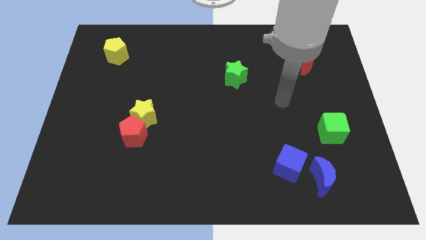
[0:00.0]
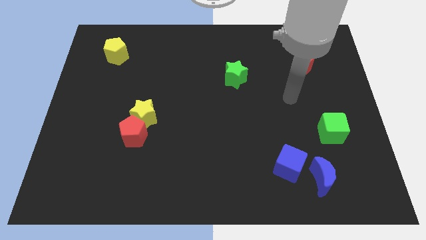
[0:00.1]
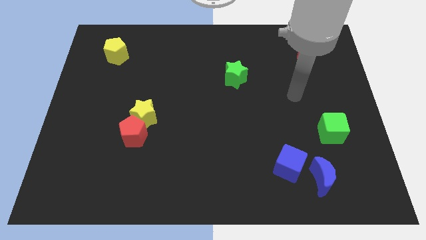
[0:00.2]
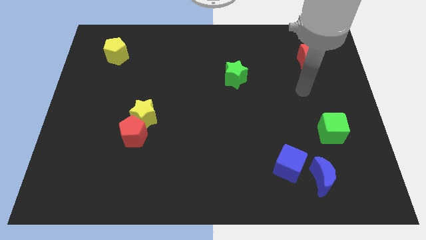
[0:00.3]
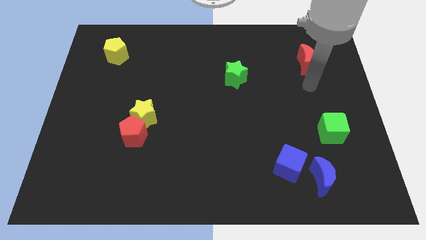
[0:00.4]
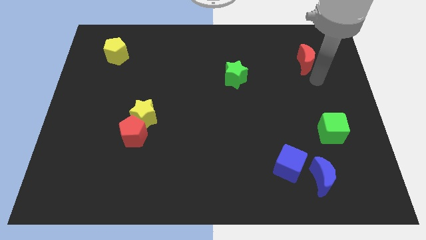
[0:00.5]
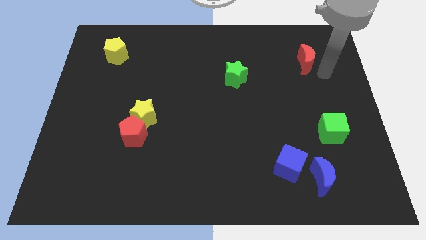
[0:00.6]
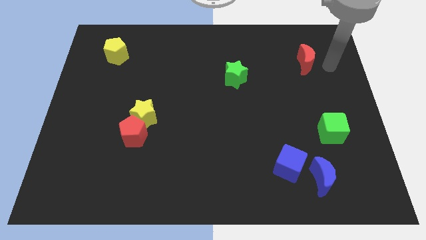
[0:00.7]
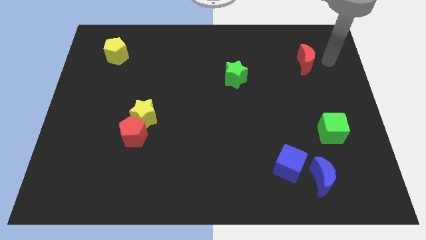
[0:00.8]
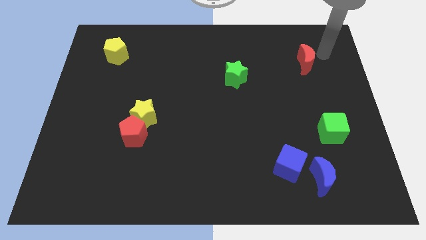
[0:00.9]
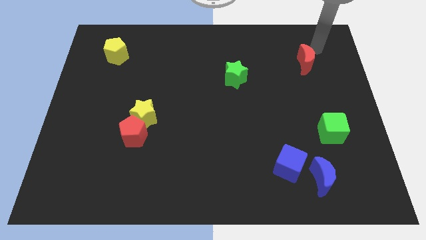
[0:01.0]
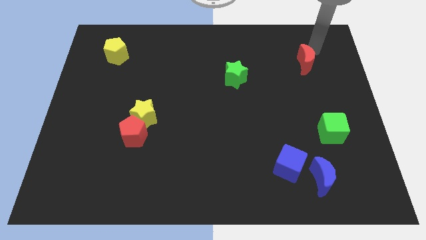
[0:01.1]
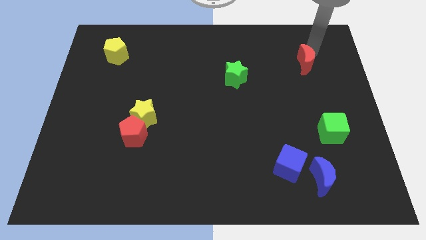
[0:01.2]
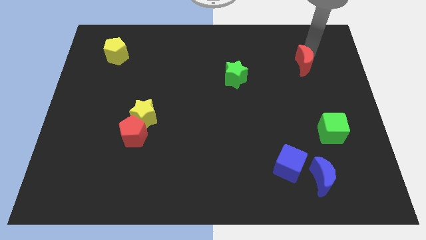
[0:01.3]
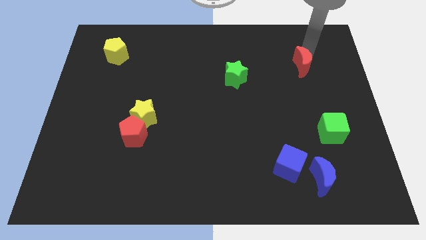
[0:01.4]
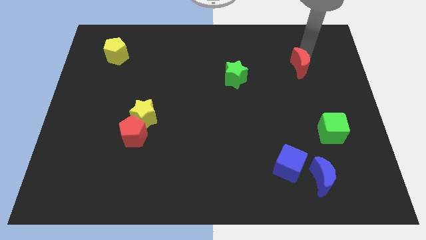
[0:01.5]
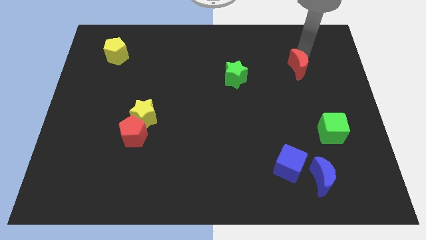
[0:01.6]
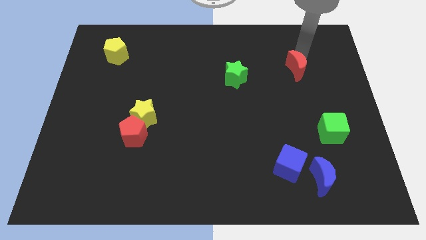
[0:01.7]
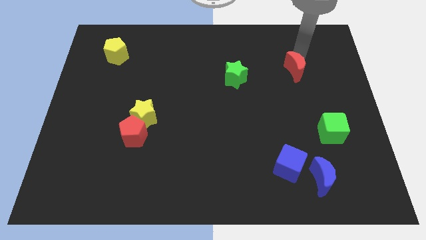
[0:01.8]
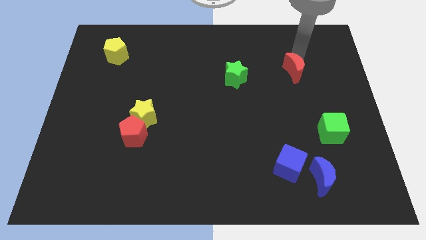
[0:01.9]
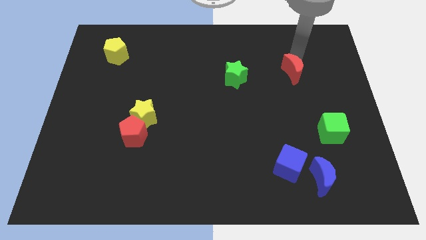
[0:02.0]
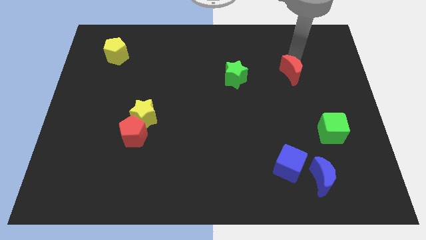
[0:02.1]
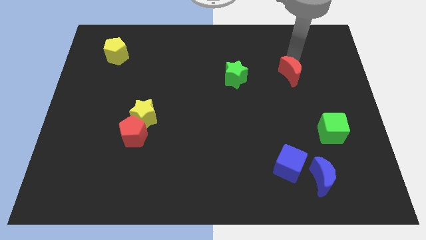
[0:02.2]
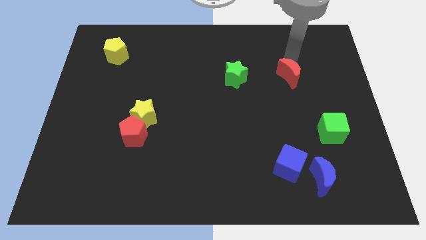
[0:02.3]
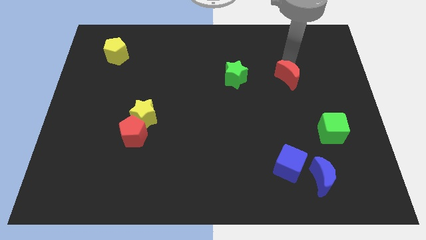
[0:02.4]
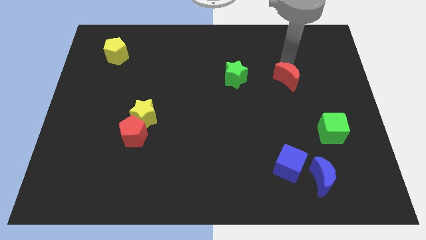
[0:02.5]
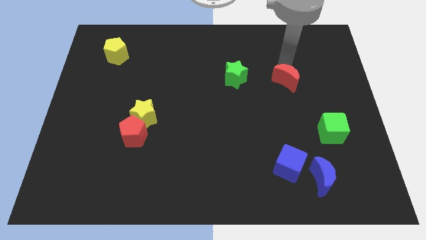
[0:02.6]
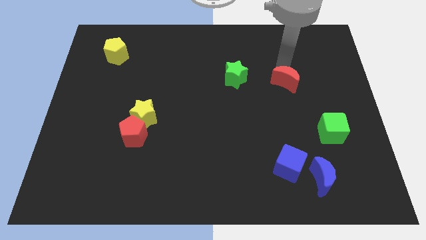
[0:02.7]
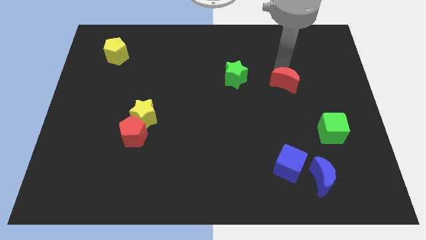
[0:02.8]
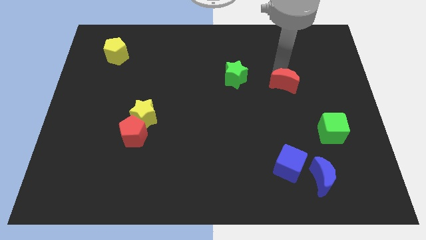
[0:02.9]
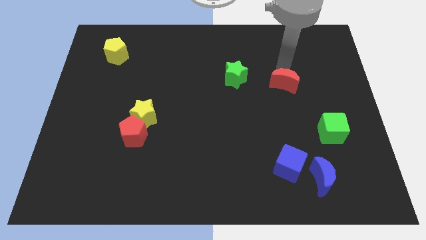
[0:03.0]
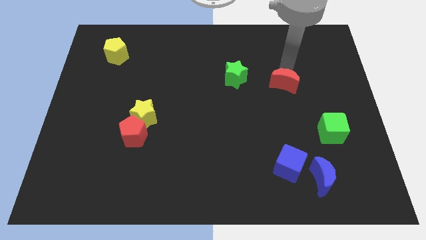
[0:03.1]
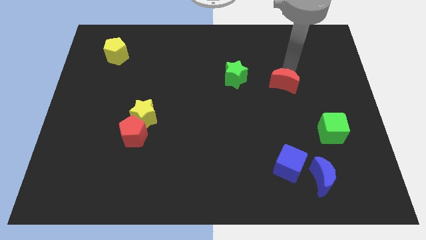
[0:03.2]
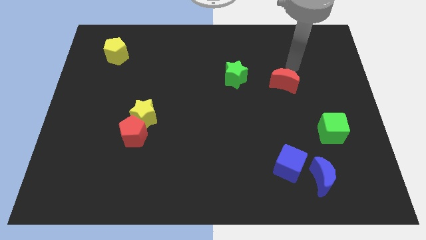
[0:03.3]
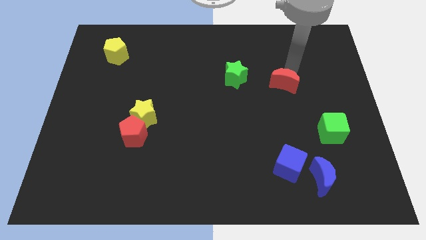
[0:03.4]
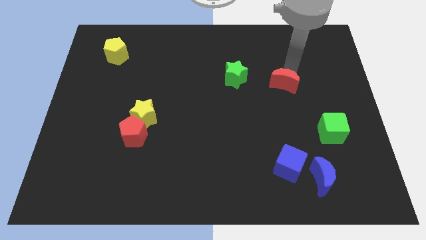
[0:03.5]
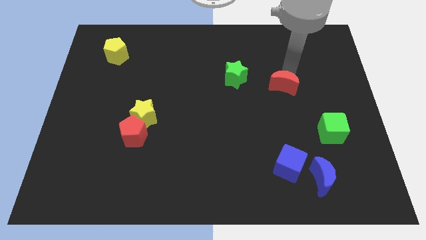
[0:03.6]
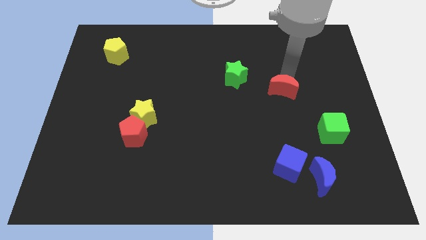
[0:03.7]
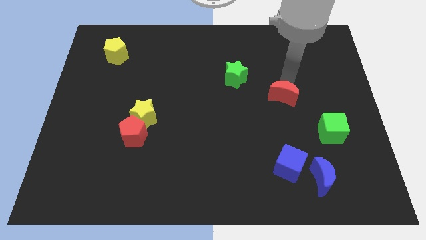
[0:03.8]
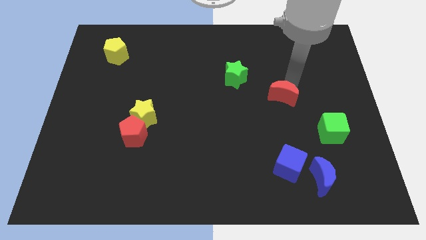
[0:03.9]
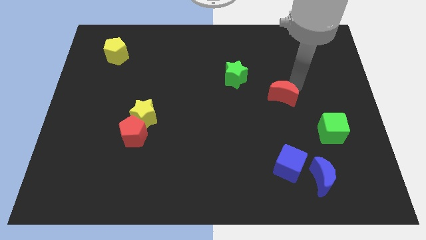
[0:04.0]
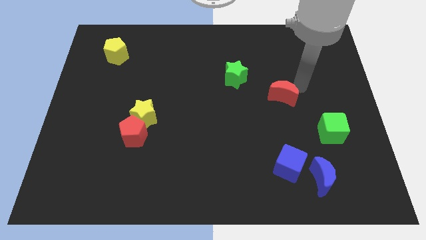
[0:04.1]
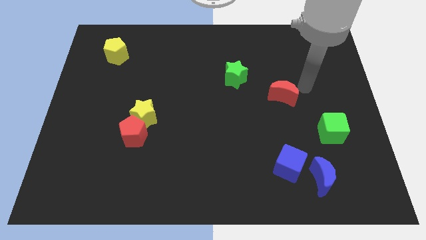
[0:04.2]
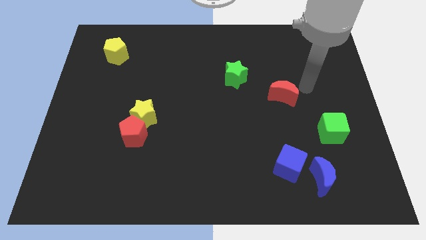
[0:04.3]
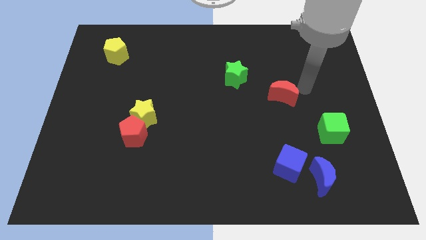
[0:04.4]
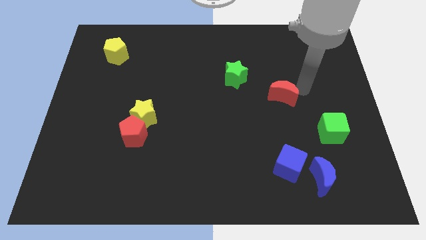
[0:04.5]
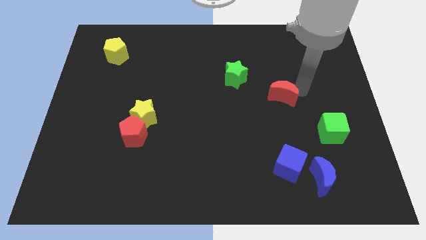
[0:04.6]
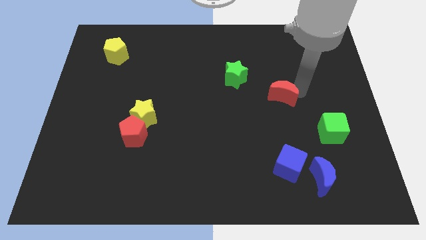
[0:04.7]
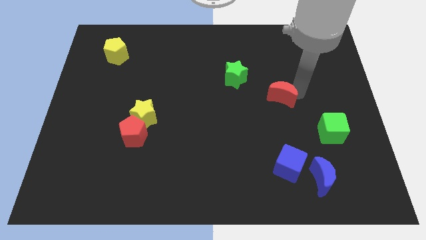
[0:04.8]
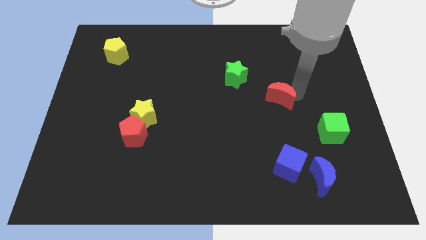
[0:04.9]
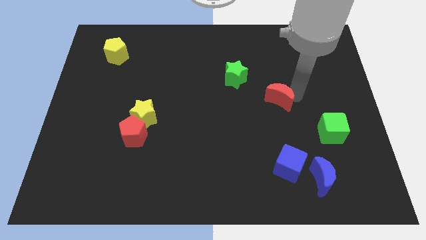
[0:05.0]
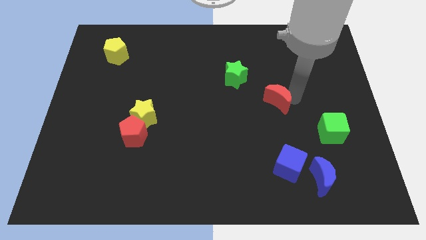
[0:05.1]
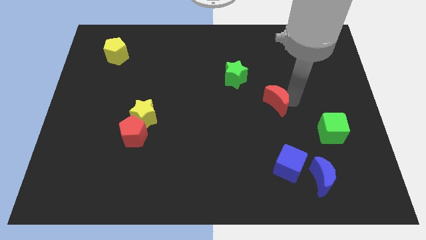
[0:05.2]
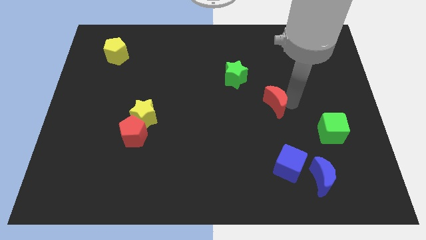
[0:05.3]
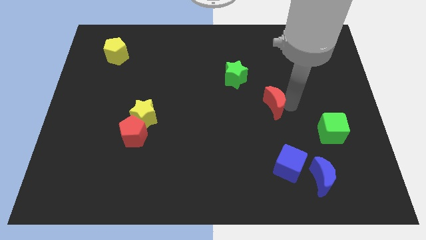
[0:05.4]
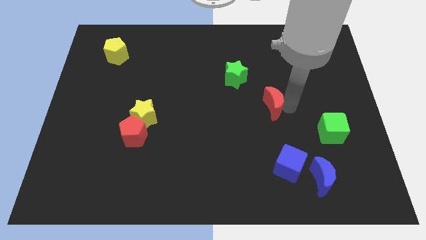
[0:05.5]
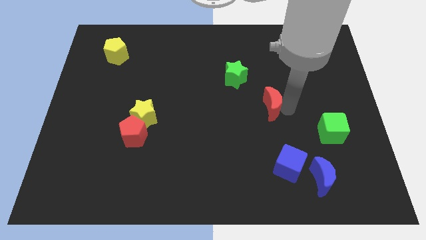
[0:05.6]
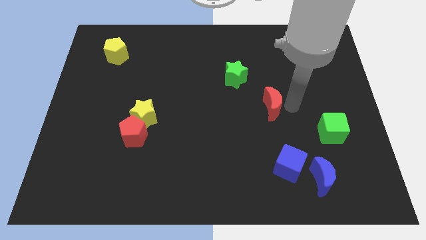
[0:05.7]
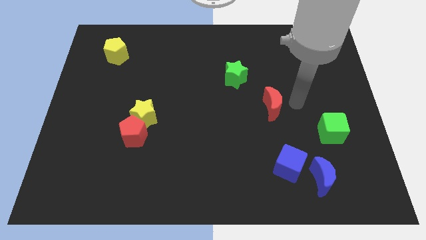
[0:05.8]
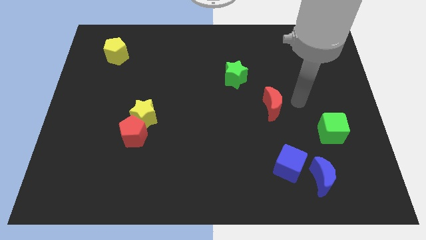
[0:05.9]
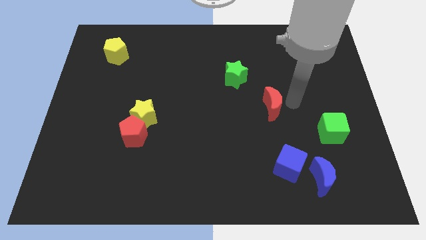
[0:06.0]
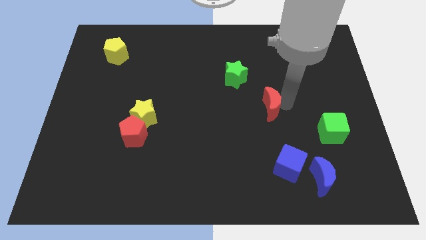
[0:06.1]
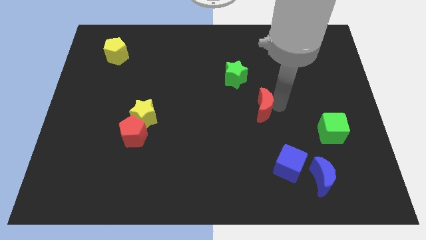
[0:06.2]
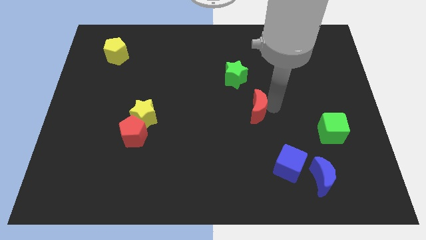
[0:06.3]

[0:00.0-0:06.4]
move the red moon downwards and left

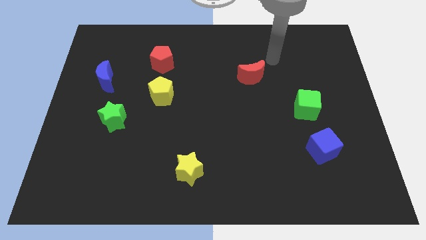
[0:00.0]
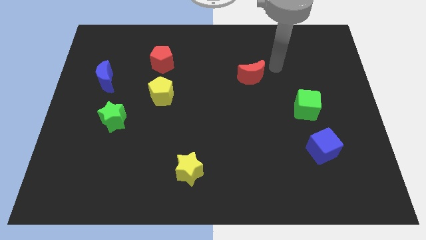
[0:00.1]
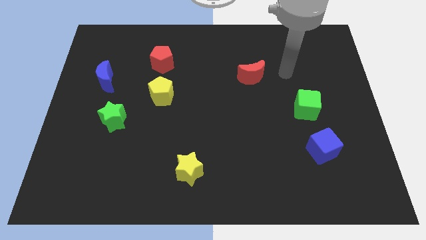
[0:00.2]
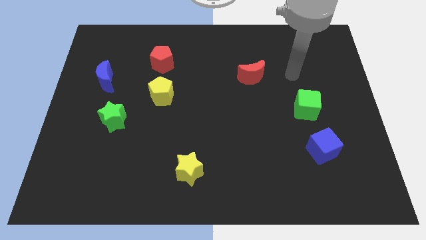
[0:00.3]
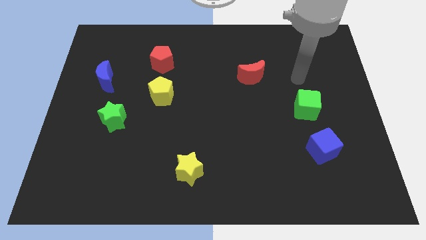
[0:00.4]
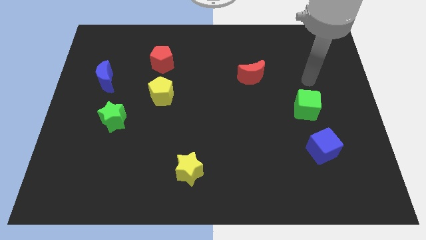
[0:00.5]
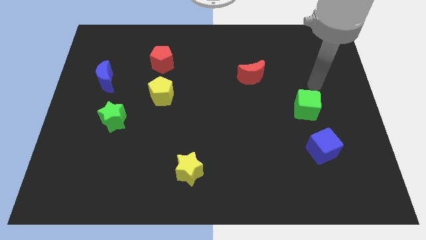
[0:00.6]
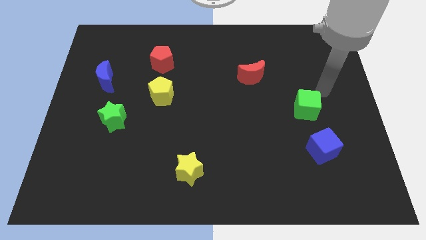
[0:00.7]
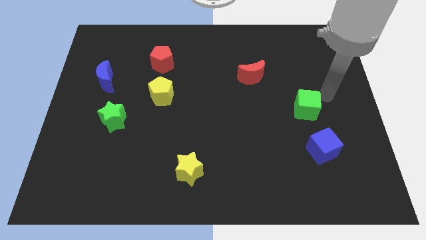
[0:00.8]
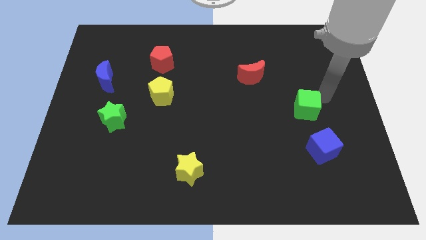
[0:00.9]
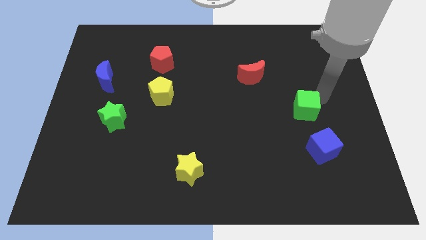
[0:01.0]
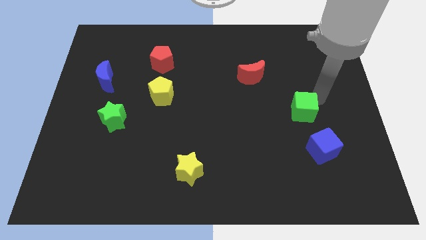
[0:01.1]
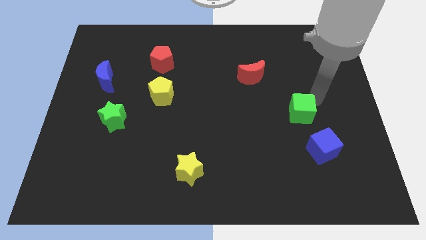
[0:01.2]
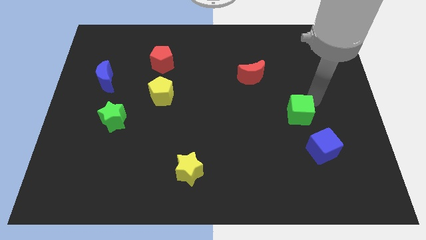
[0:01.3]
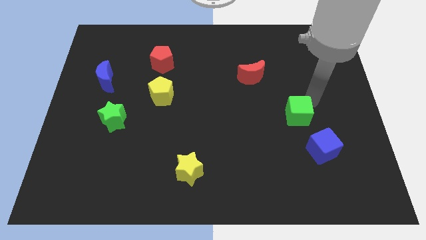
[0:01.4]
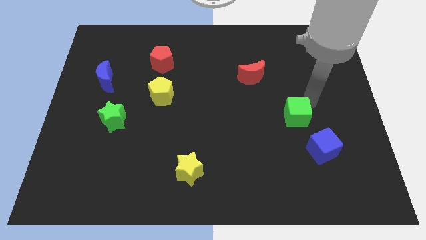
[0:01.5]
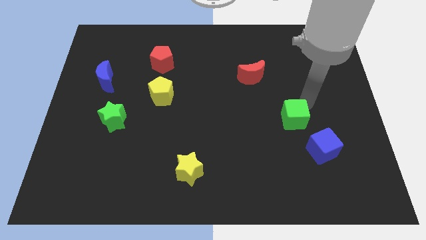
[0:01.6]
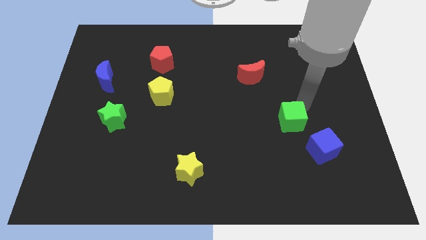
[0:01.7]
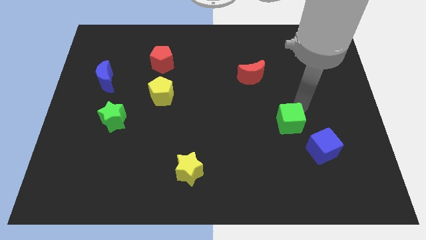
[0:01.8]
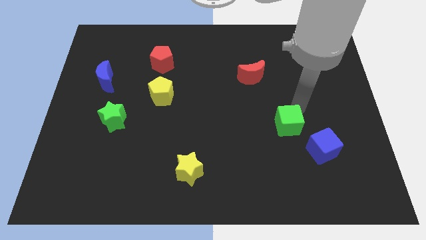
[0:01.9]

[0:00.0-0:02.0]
move the green cube down and left diagonally slightly
